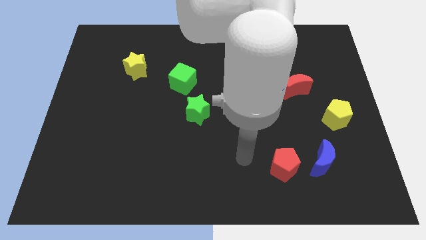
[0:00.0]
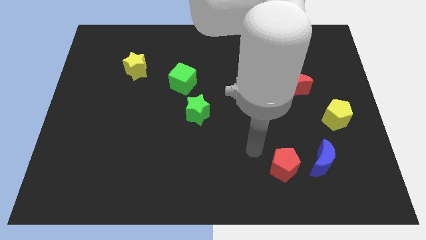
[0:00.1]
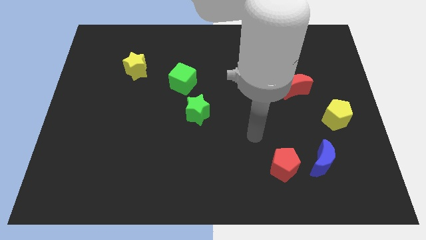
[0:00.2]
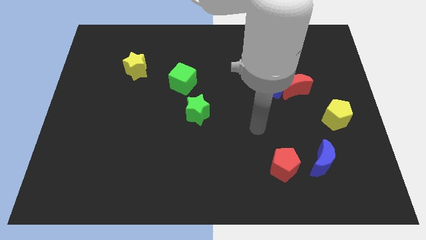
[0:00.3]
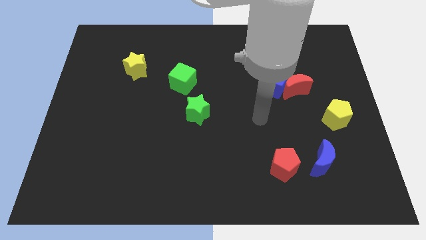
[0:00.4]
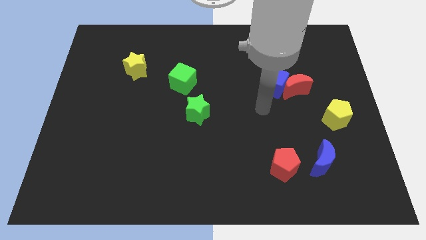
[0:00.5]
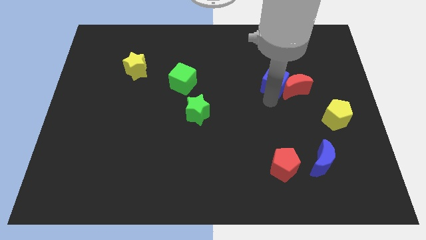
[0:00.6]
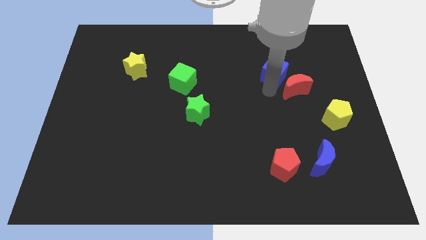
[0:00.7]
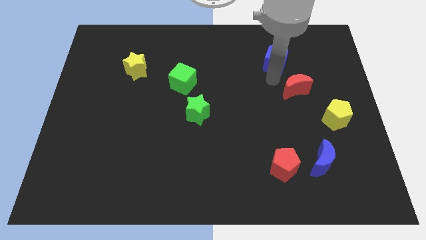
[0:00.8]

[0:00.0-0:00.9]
move the red moon away from the blue cube

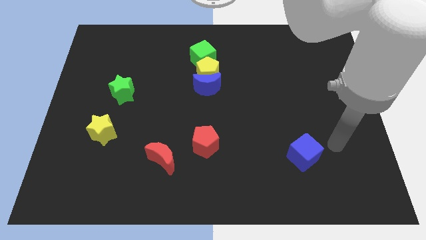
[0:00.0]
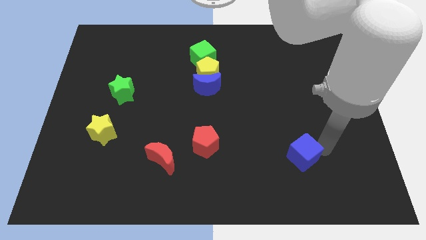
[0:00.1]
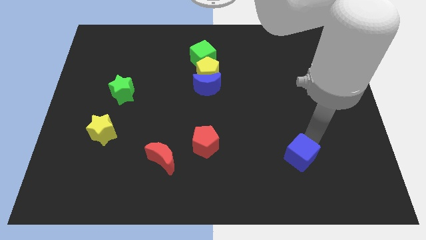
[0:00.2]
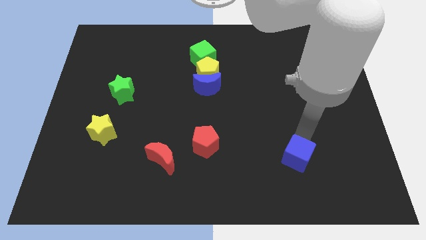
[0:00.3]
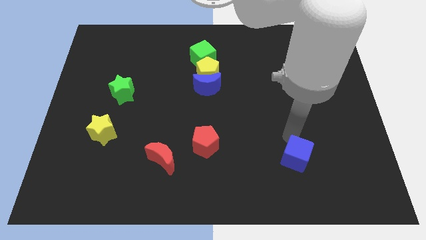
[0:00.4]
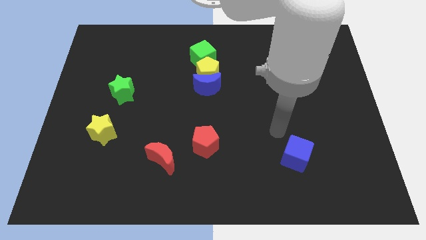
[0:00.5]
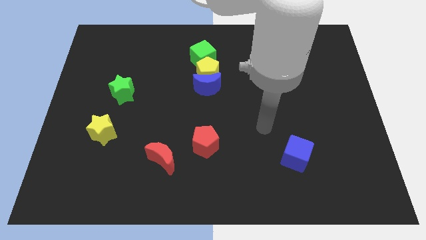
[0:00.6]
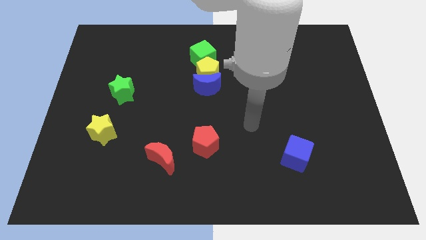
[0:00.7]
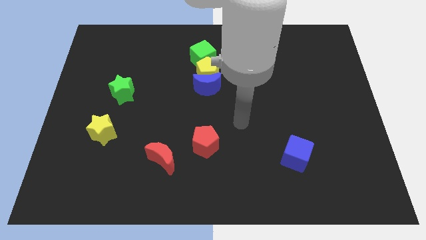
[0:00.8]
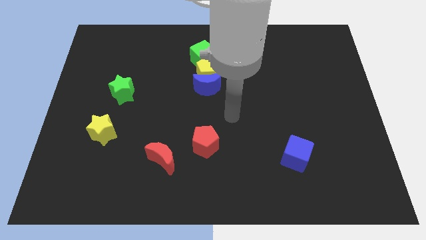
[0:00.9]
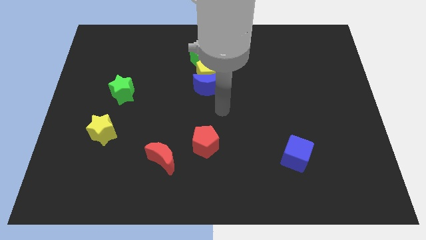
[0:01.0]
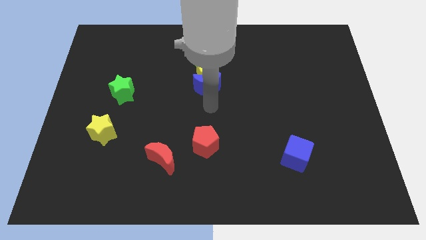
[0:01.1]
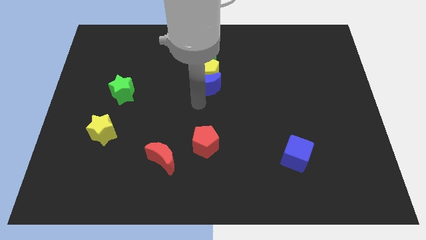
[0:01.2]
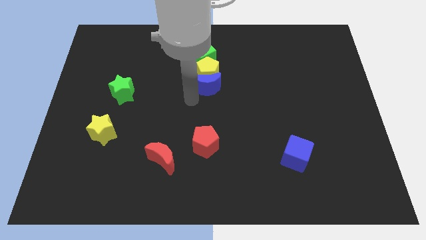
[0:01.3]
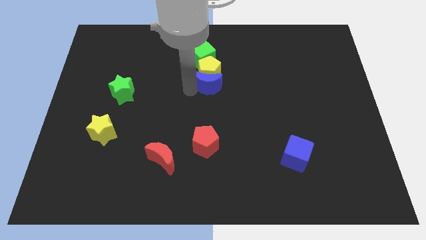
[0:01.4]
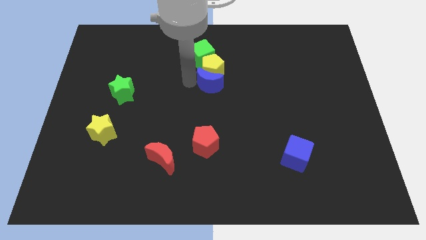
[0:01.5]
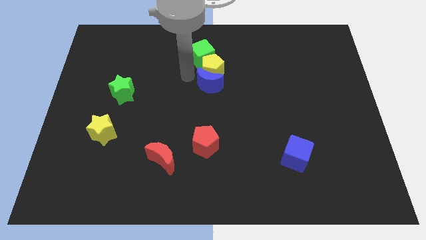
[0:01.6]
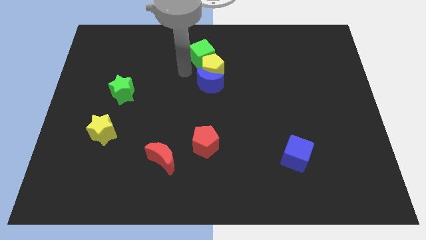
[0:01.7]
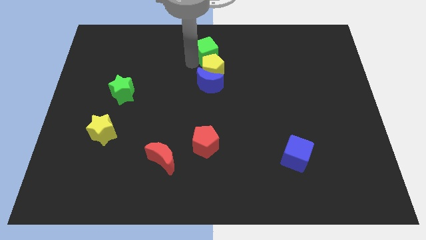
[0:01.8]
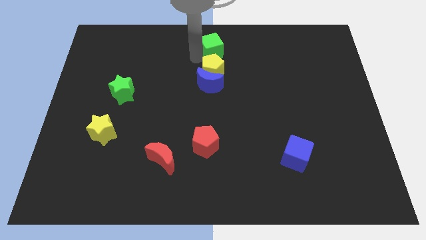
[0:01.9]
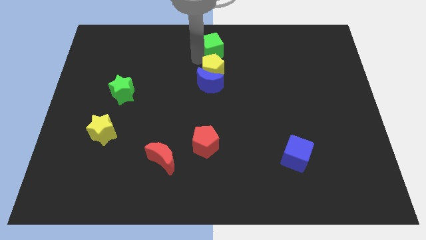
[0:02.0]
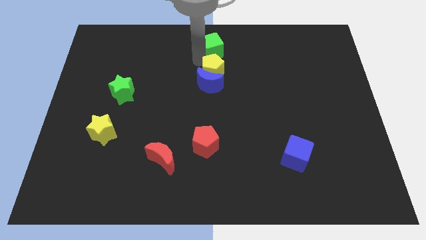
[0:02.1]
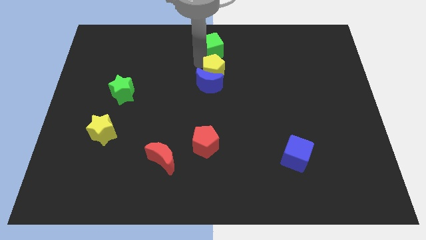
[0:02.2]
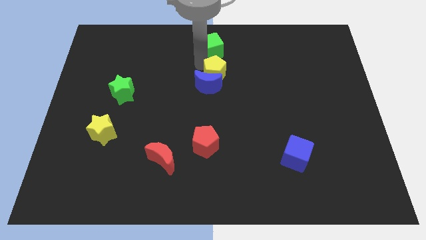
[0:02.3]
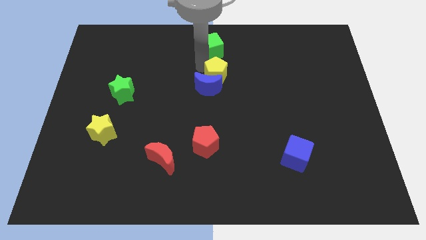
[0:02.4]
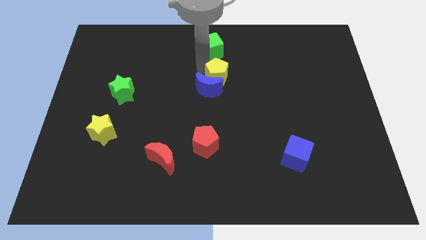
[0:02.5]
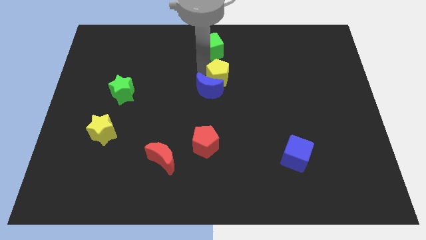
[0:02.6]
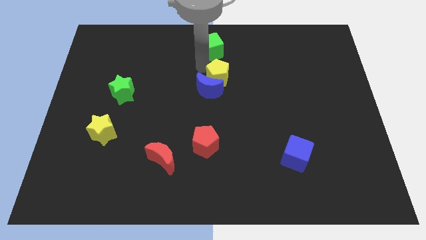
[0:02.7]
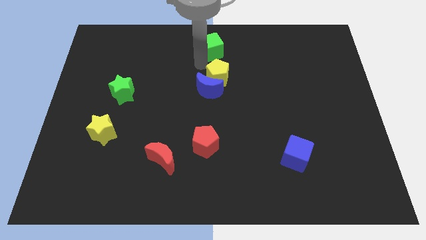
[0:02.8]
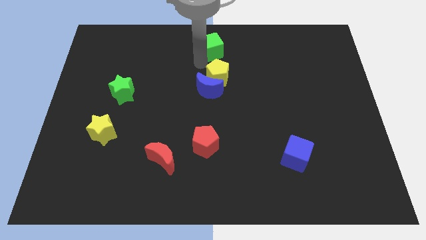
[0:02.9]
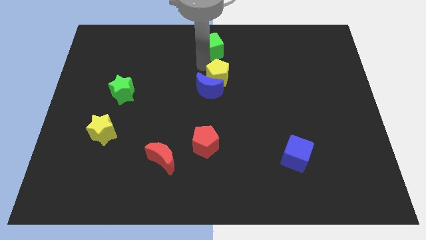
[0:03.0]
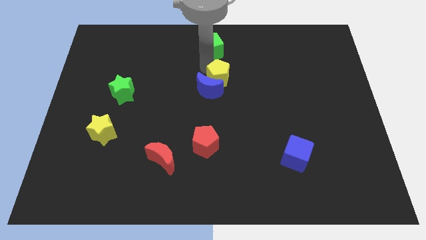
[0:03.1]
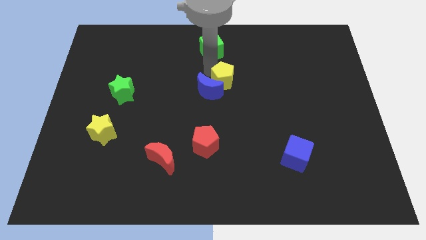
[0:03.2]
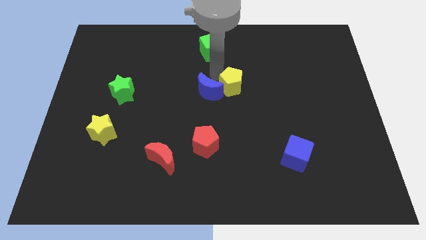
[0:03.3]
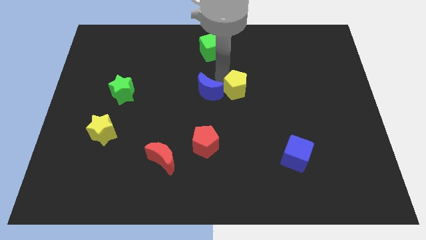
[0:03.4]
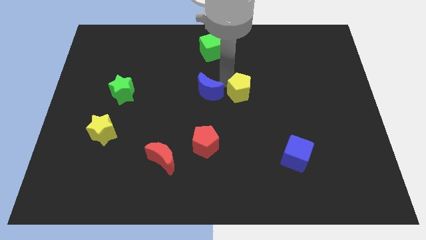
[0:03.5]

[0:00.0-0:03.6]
move the yellow pentagon away from the blue moon and green cube

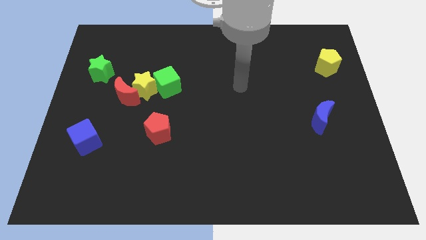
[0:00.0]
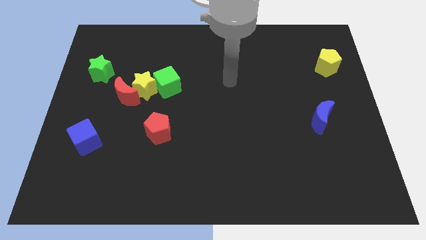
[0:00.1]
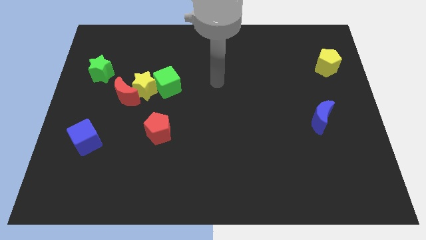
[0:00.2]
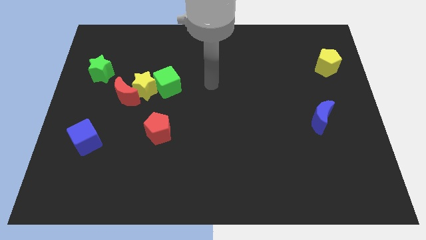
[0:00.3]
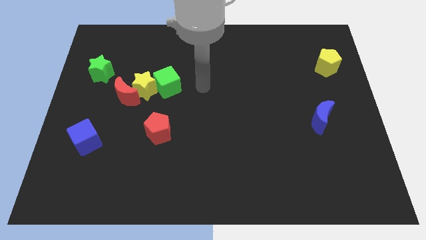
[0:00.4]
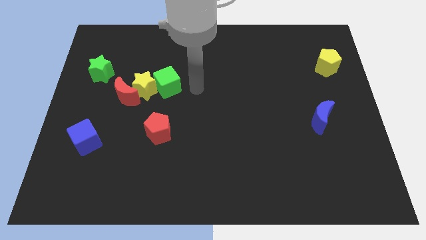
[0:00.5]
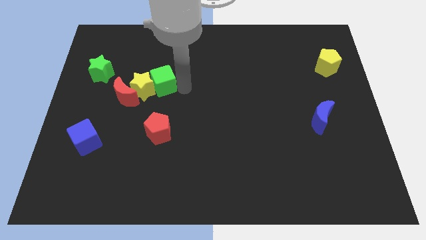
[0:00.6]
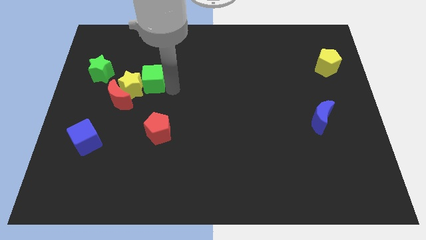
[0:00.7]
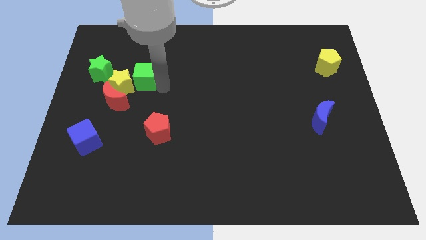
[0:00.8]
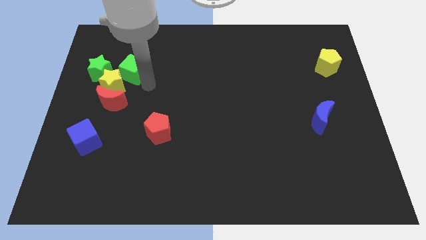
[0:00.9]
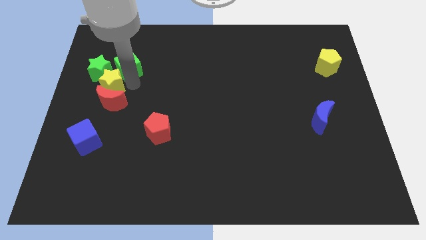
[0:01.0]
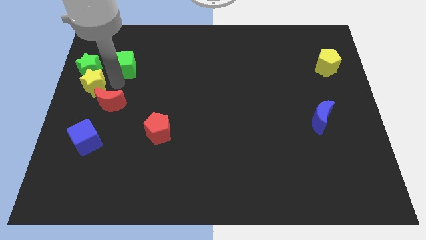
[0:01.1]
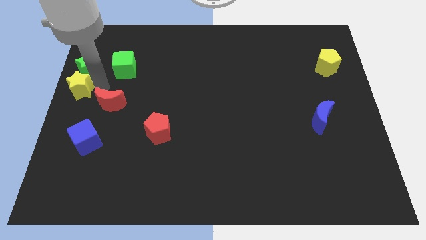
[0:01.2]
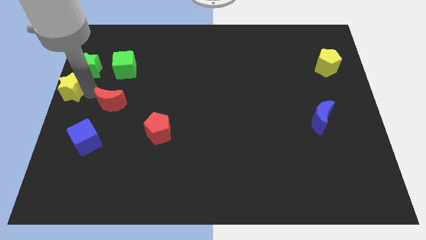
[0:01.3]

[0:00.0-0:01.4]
separate the red moon from the yellow star

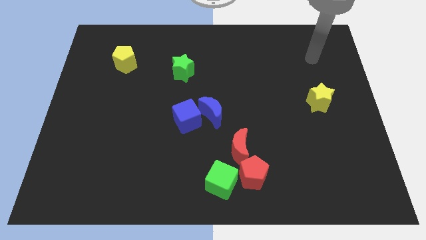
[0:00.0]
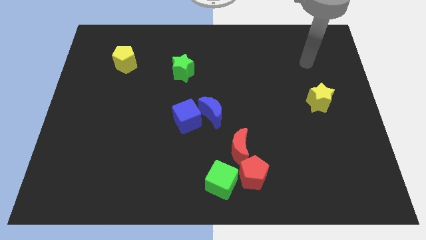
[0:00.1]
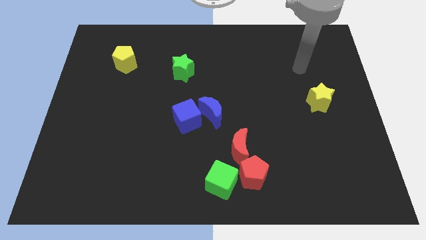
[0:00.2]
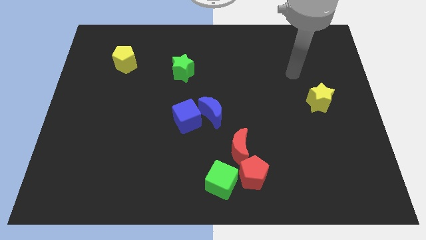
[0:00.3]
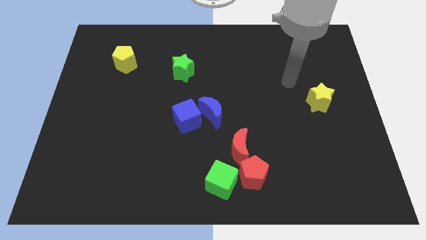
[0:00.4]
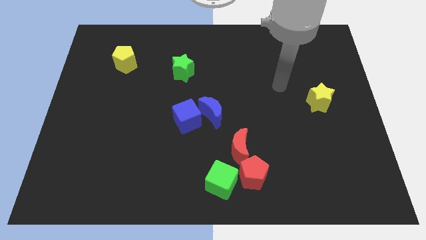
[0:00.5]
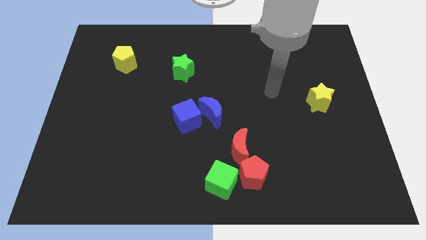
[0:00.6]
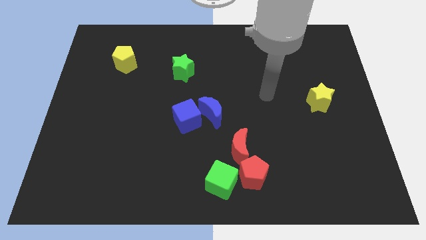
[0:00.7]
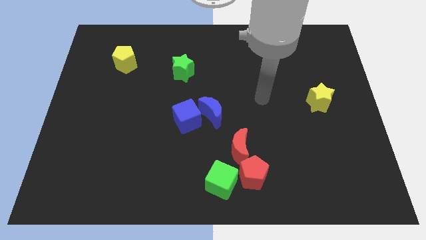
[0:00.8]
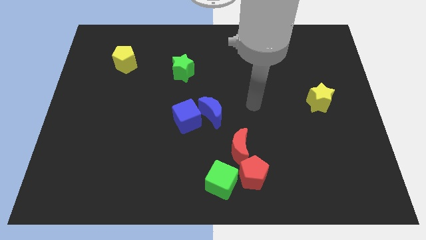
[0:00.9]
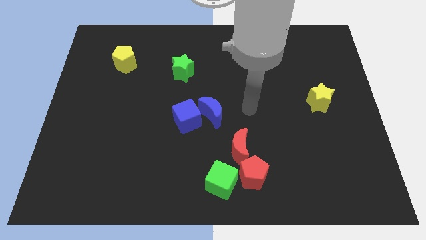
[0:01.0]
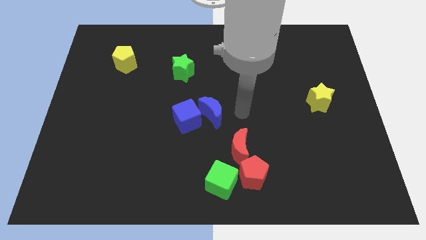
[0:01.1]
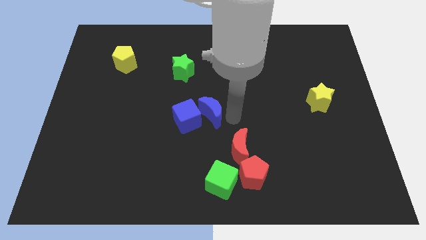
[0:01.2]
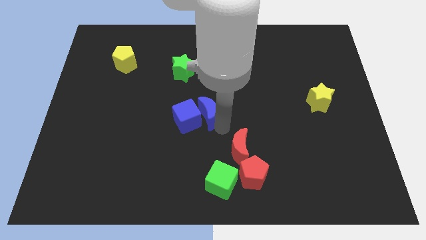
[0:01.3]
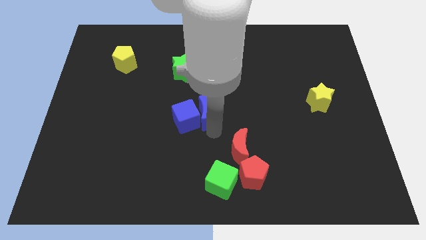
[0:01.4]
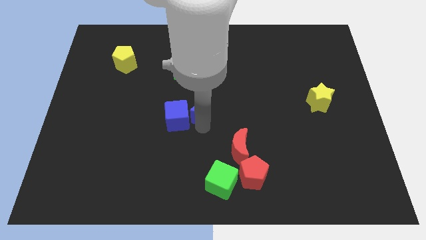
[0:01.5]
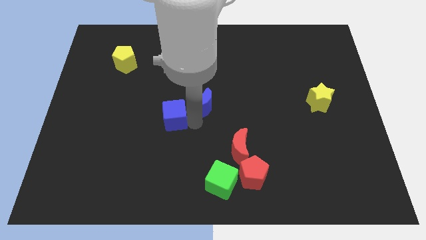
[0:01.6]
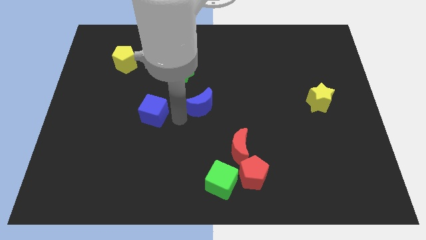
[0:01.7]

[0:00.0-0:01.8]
move the blue moon away from the blue cube

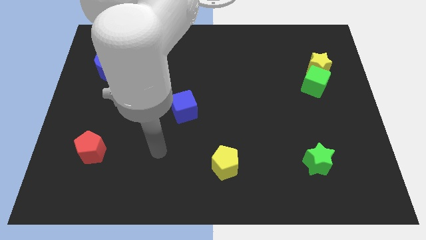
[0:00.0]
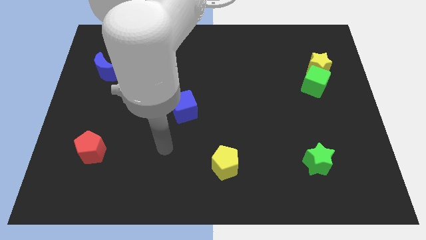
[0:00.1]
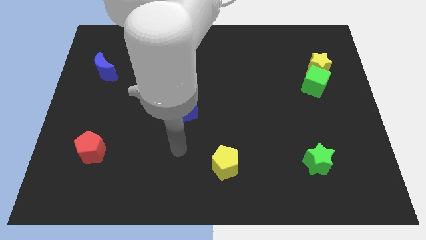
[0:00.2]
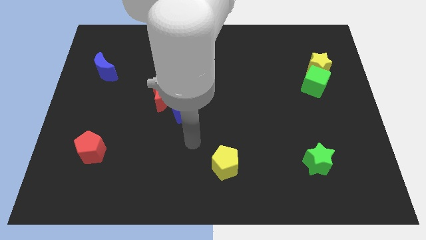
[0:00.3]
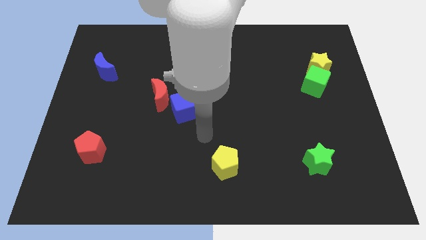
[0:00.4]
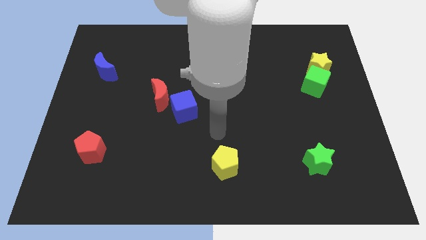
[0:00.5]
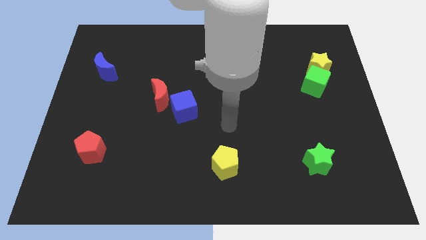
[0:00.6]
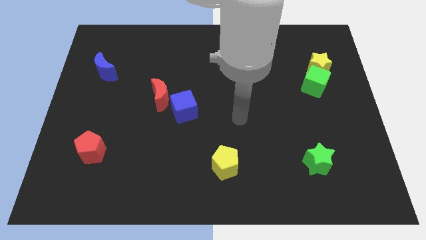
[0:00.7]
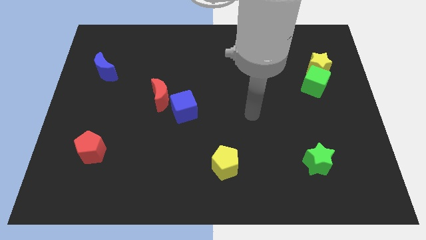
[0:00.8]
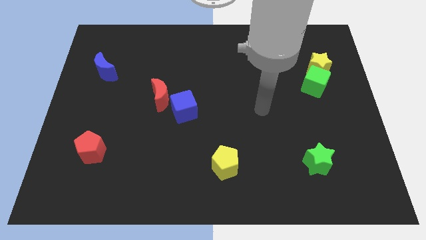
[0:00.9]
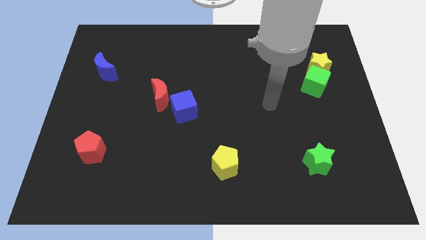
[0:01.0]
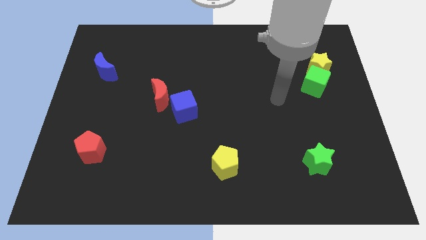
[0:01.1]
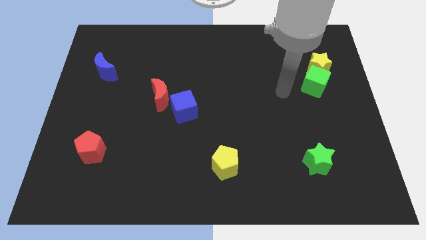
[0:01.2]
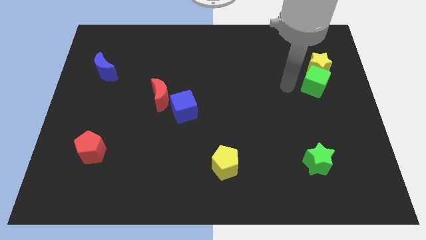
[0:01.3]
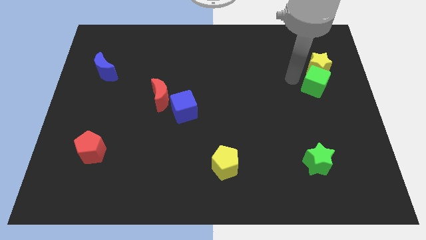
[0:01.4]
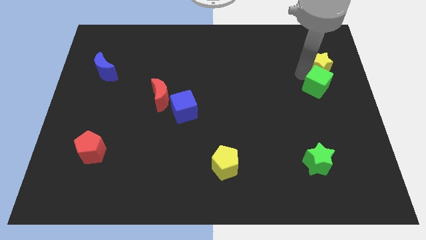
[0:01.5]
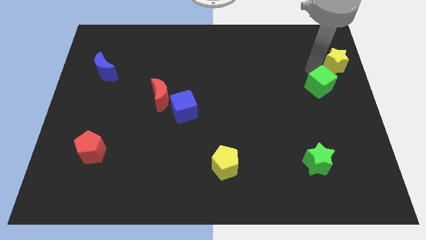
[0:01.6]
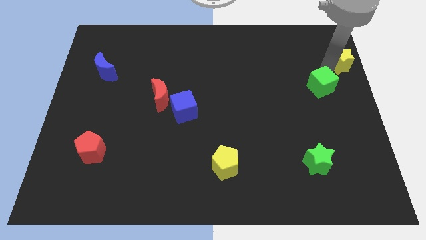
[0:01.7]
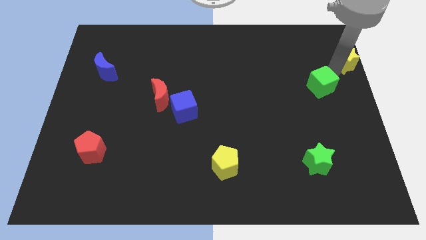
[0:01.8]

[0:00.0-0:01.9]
separate the green cube from the yellow star
